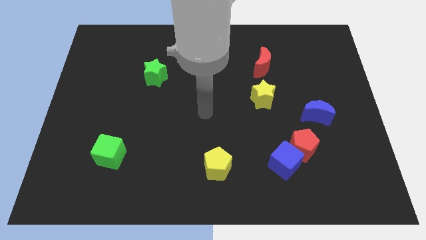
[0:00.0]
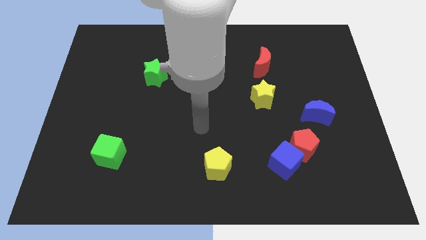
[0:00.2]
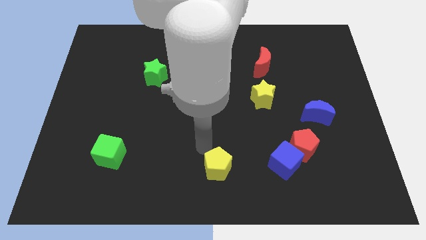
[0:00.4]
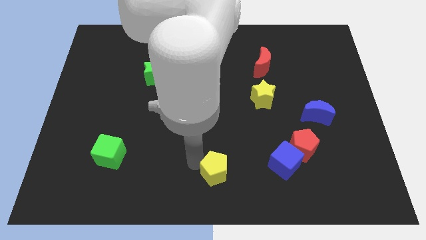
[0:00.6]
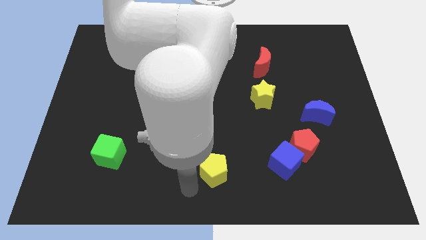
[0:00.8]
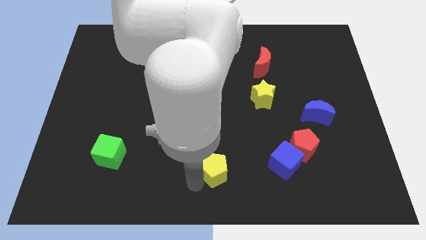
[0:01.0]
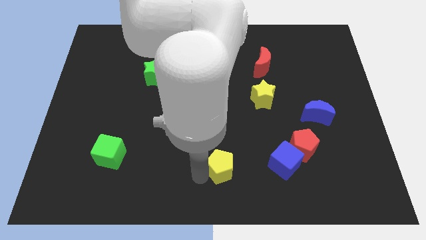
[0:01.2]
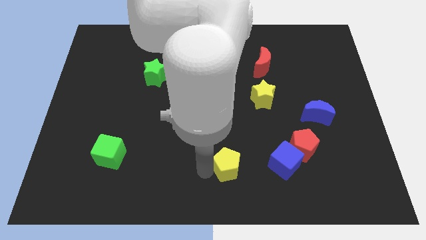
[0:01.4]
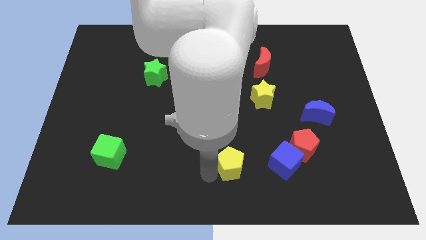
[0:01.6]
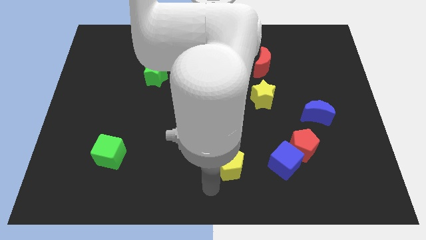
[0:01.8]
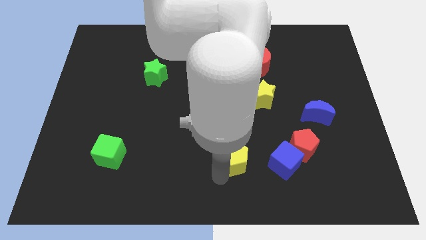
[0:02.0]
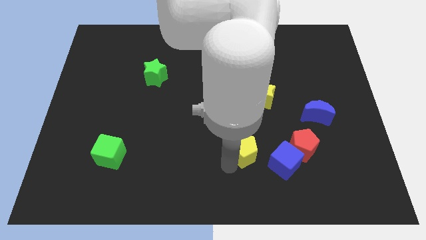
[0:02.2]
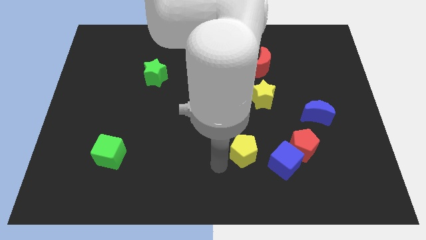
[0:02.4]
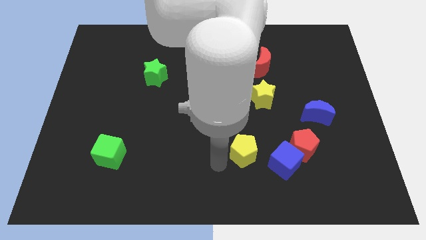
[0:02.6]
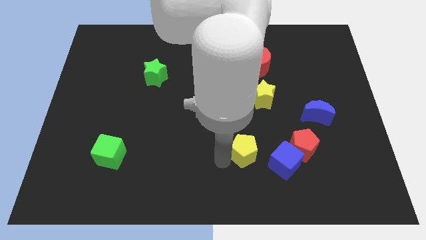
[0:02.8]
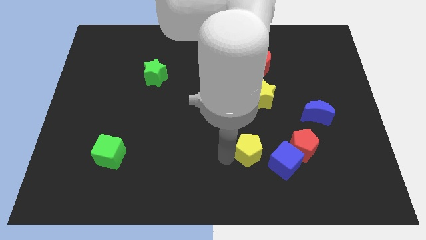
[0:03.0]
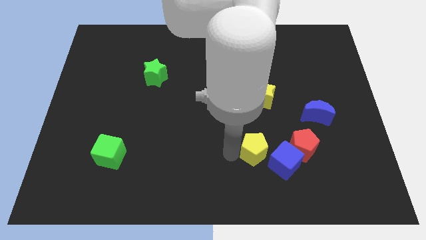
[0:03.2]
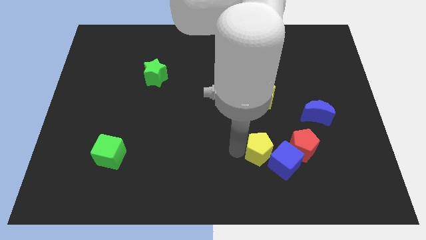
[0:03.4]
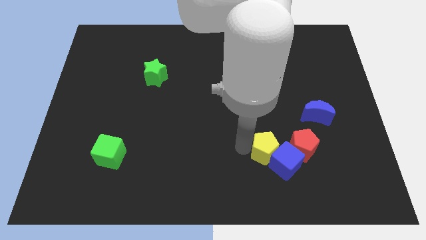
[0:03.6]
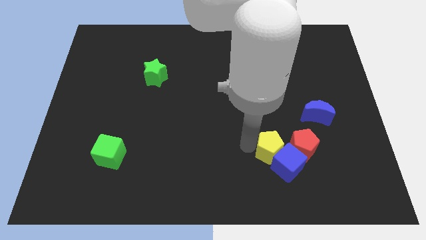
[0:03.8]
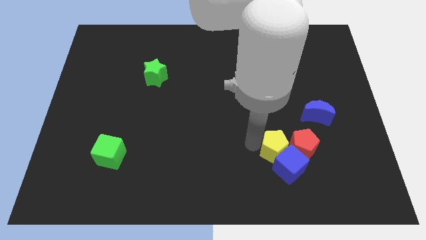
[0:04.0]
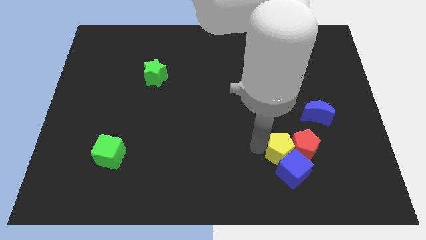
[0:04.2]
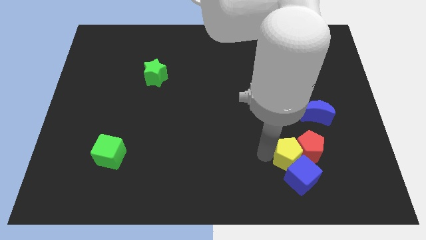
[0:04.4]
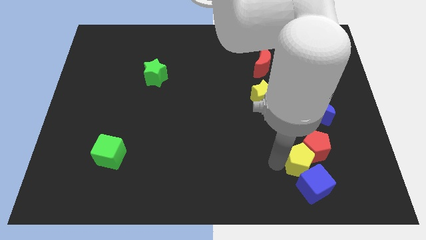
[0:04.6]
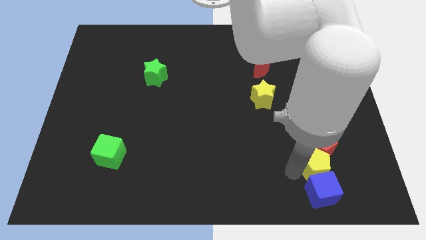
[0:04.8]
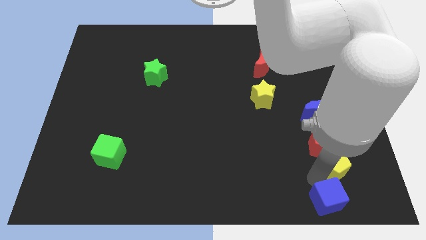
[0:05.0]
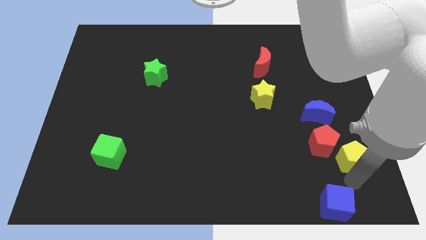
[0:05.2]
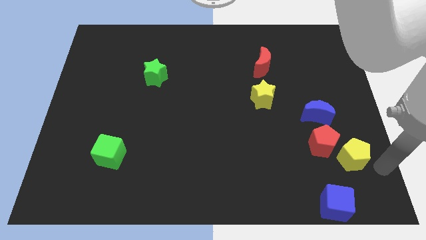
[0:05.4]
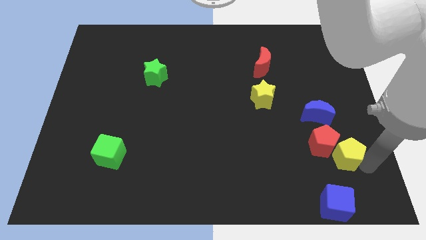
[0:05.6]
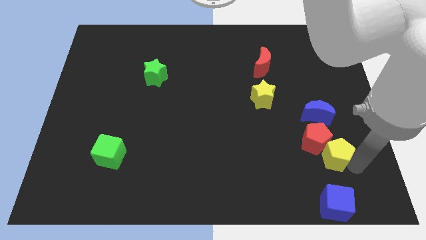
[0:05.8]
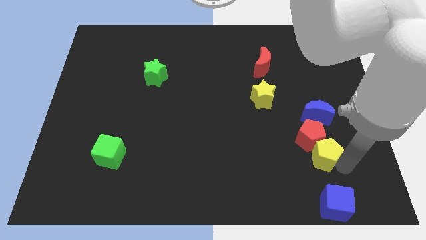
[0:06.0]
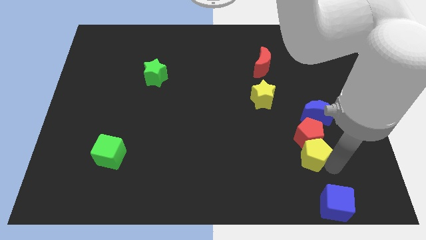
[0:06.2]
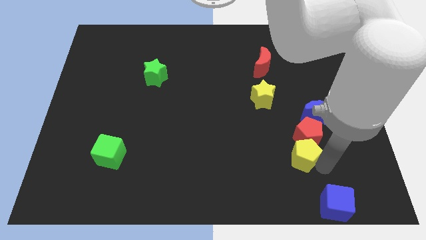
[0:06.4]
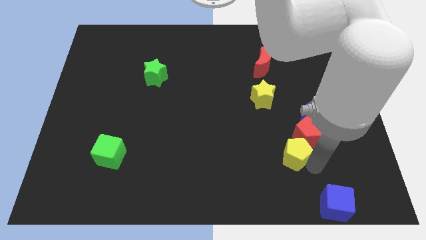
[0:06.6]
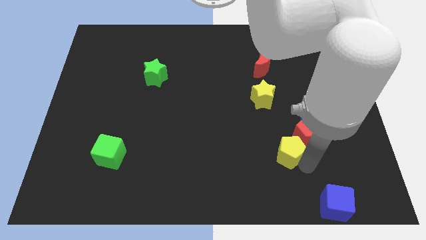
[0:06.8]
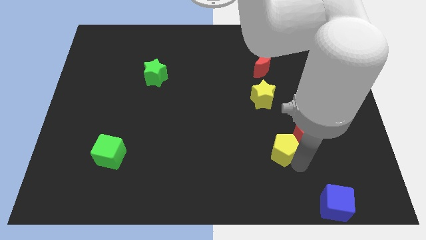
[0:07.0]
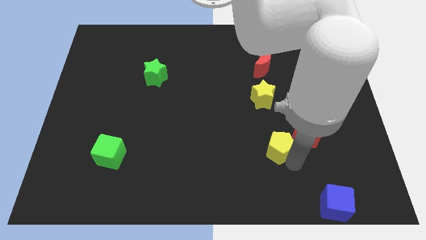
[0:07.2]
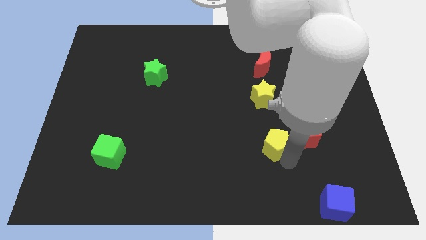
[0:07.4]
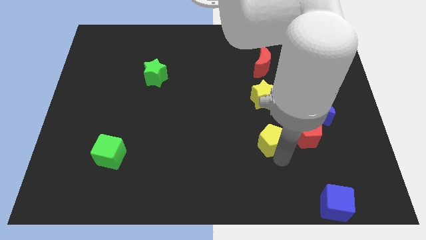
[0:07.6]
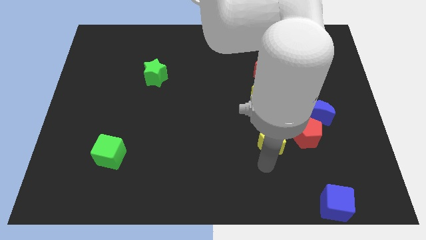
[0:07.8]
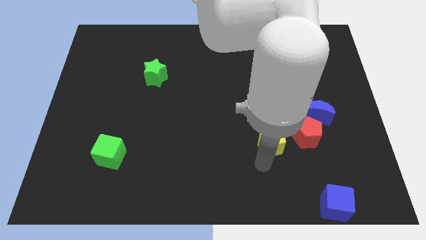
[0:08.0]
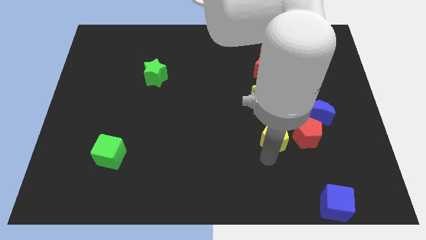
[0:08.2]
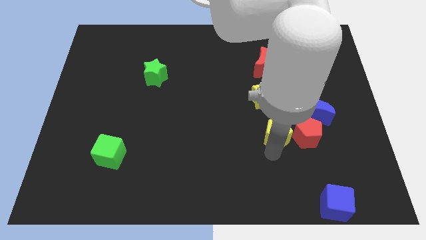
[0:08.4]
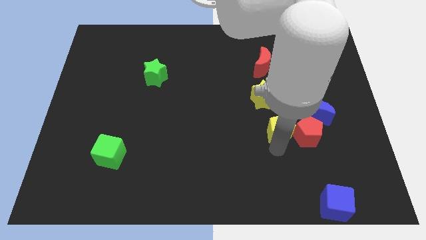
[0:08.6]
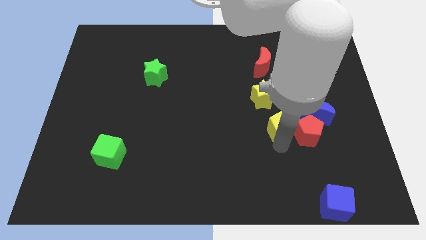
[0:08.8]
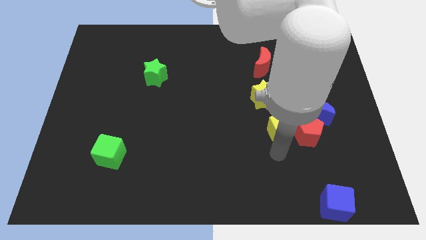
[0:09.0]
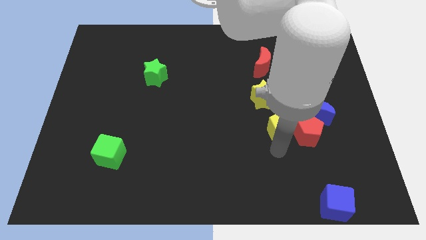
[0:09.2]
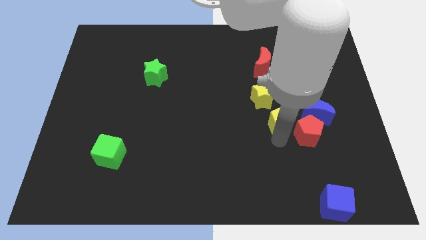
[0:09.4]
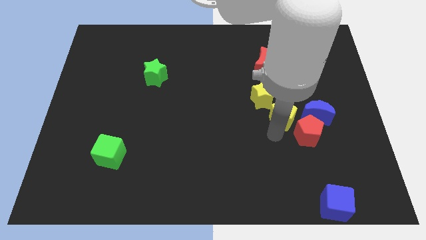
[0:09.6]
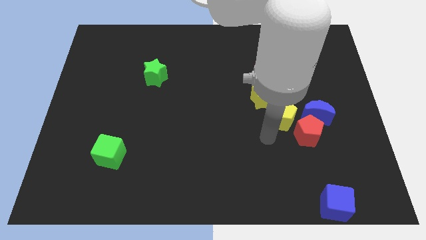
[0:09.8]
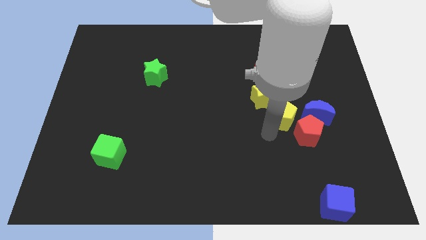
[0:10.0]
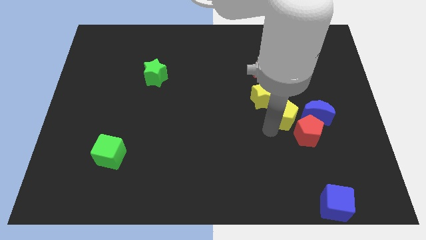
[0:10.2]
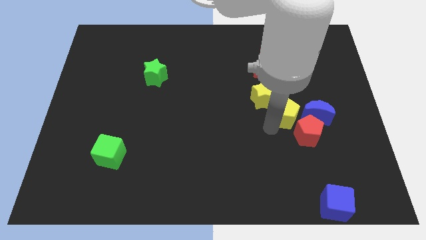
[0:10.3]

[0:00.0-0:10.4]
move the yellow pentagon upwards and then to the right

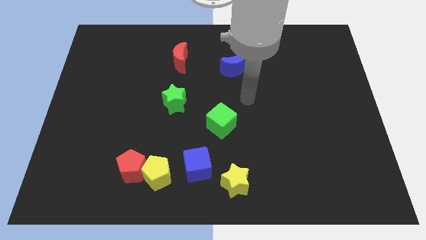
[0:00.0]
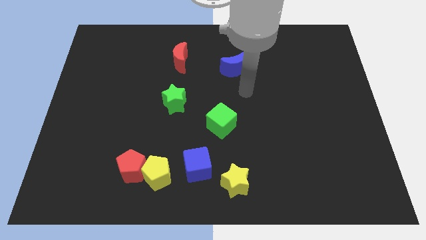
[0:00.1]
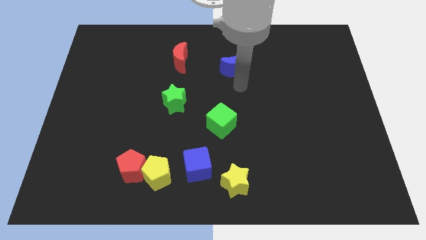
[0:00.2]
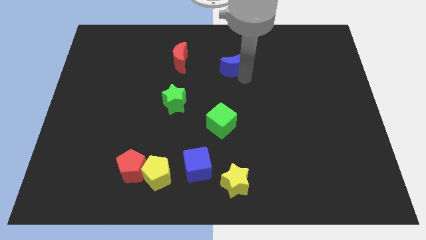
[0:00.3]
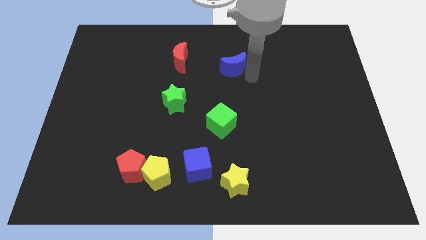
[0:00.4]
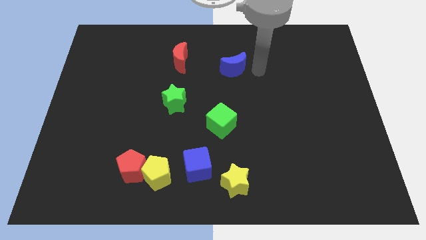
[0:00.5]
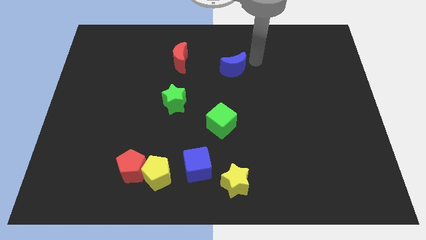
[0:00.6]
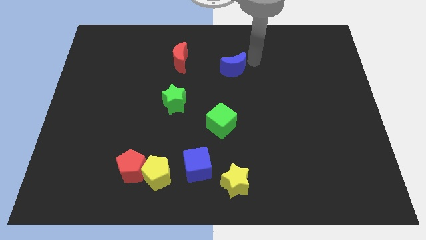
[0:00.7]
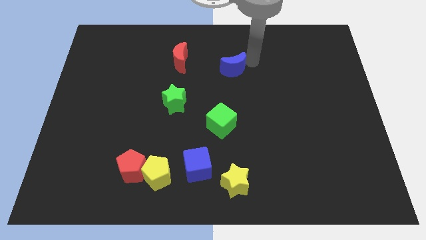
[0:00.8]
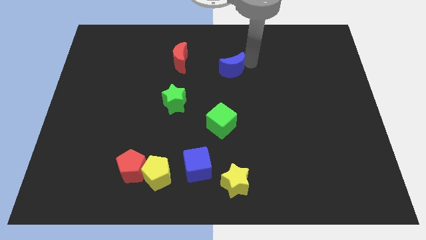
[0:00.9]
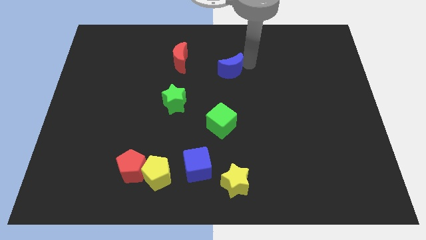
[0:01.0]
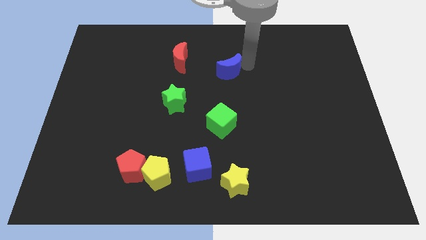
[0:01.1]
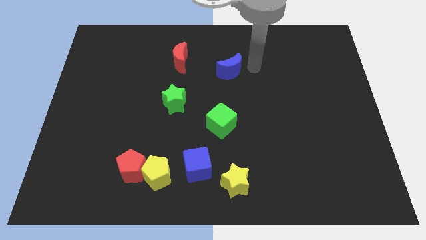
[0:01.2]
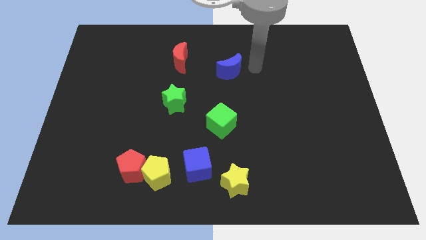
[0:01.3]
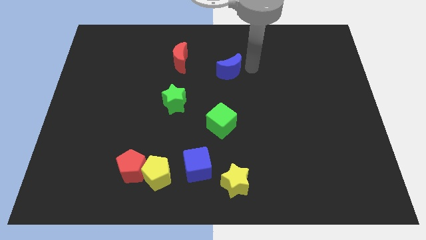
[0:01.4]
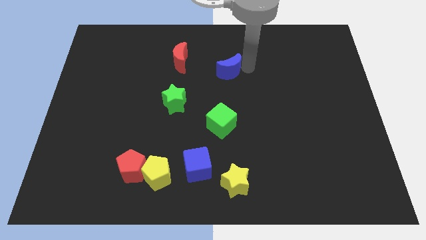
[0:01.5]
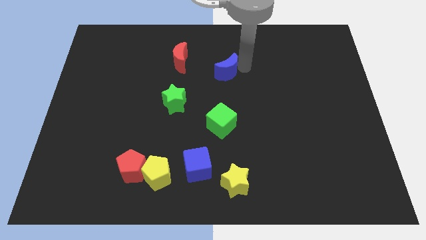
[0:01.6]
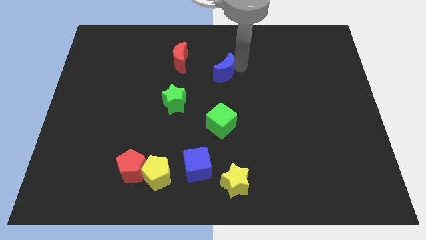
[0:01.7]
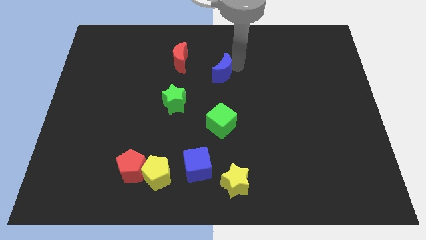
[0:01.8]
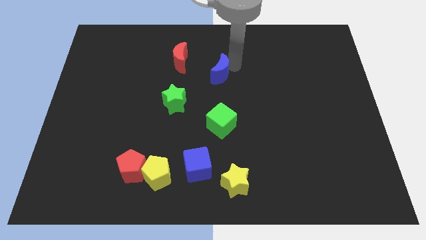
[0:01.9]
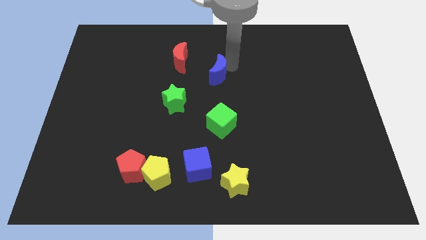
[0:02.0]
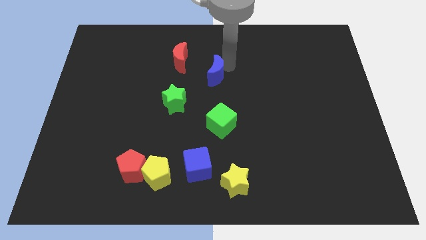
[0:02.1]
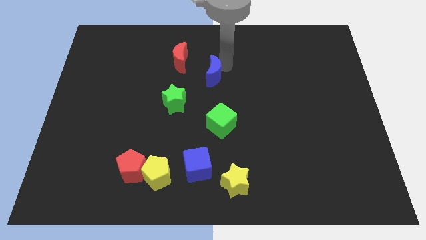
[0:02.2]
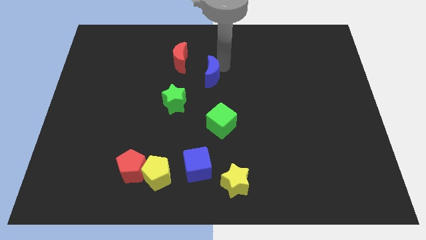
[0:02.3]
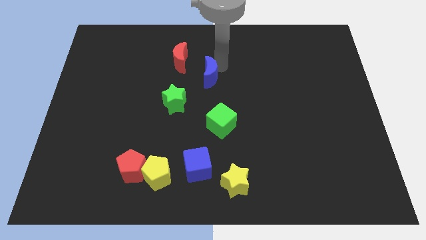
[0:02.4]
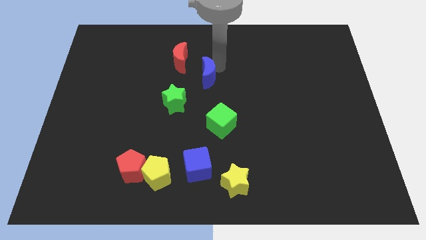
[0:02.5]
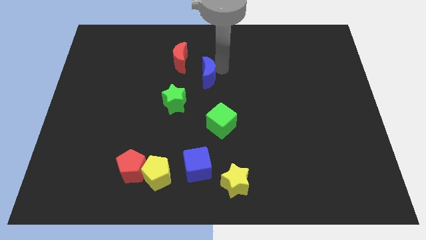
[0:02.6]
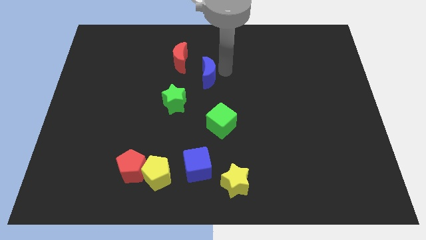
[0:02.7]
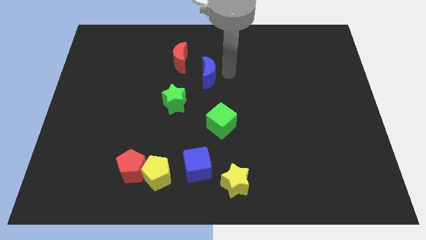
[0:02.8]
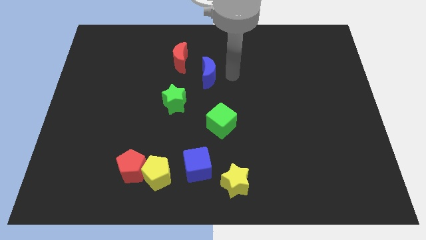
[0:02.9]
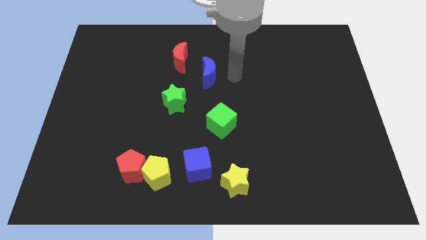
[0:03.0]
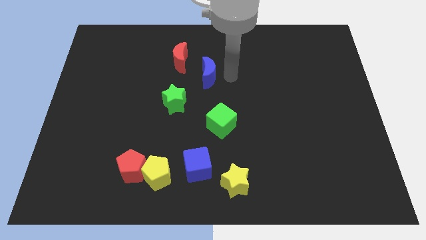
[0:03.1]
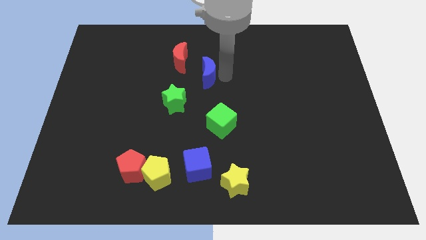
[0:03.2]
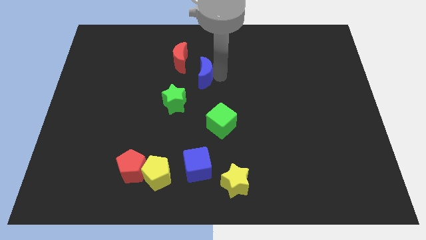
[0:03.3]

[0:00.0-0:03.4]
move the blue moon left a little
